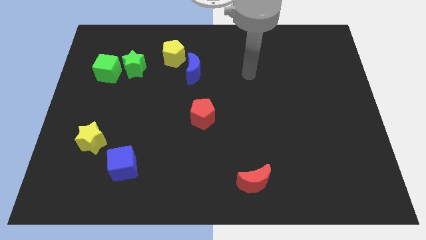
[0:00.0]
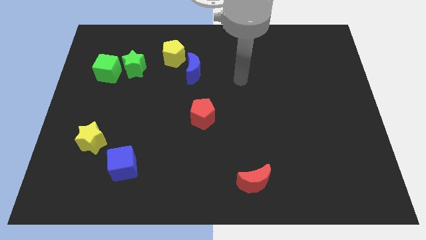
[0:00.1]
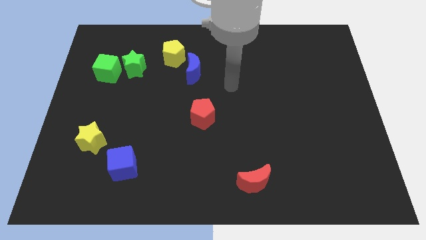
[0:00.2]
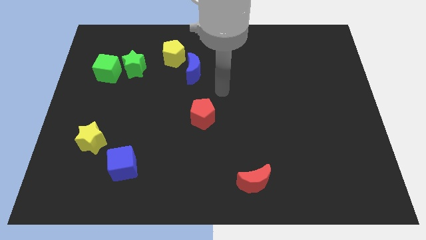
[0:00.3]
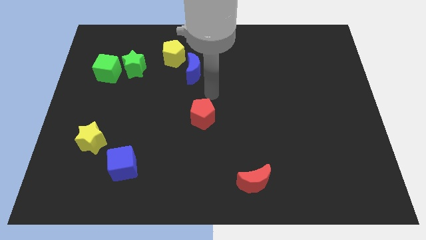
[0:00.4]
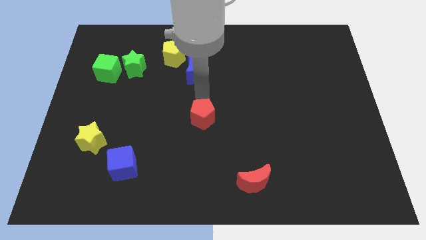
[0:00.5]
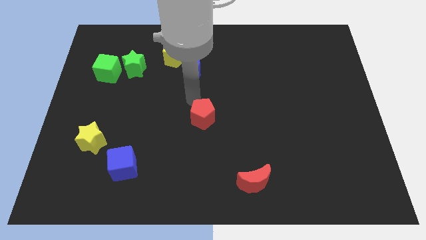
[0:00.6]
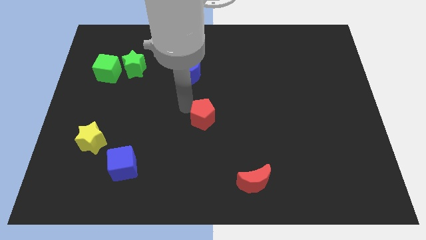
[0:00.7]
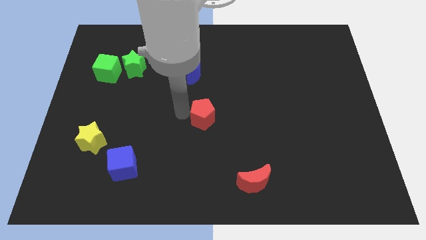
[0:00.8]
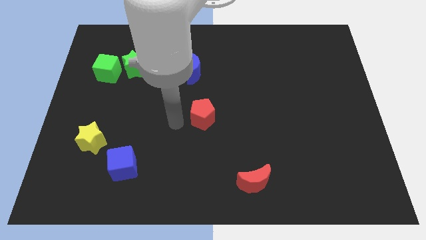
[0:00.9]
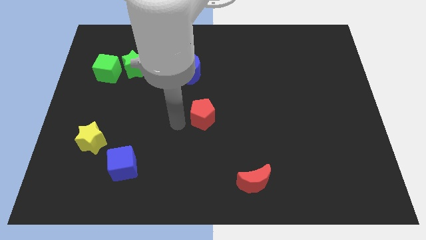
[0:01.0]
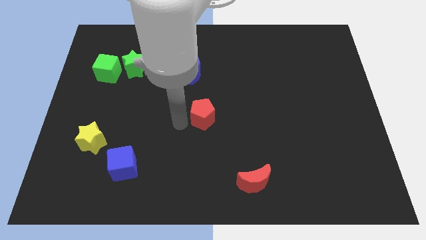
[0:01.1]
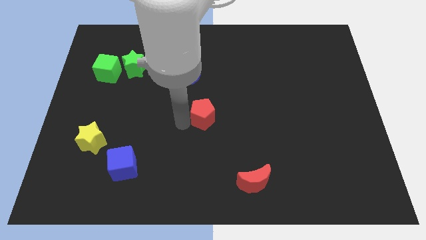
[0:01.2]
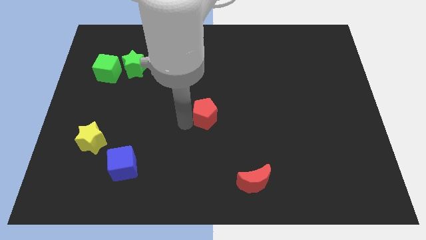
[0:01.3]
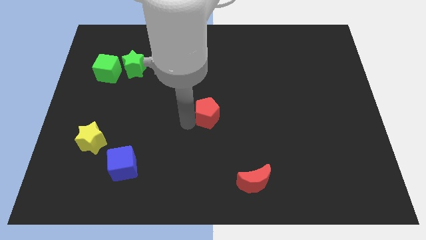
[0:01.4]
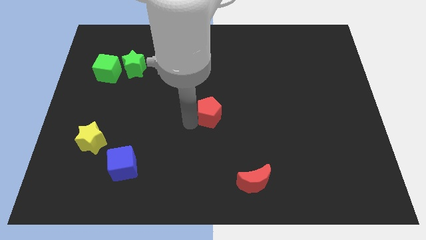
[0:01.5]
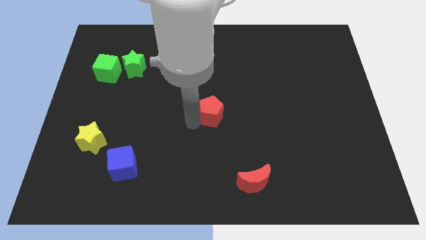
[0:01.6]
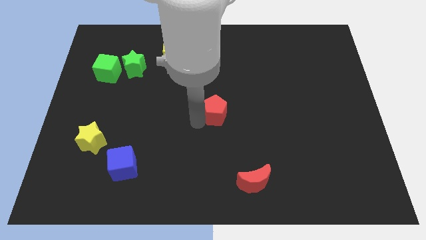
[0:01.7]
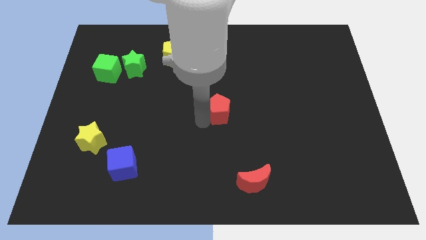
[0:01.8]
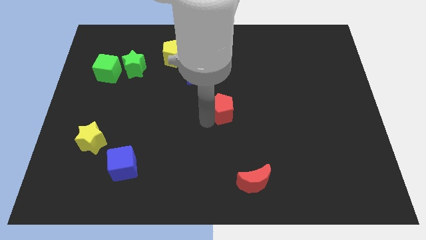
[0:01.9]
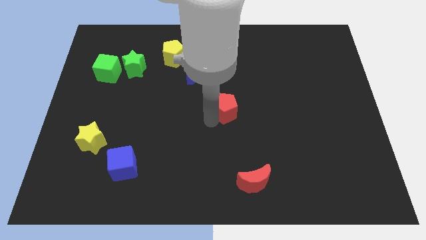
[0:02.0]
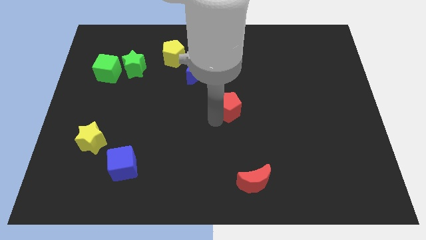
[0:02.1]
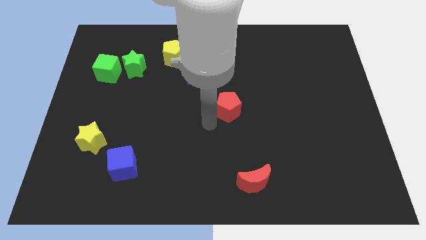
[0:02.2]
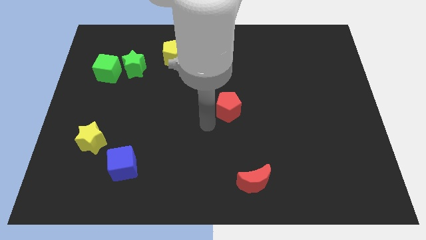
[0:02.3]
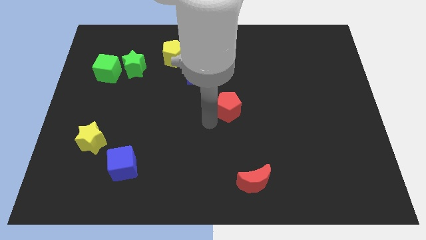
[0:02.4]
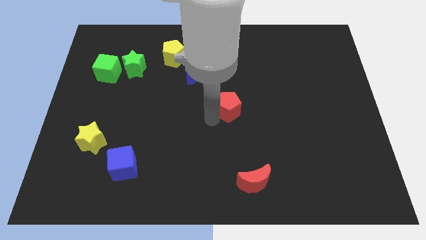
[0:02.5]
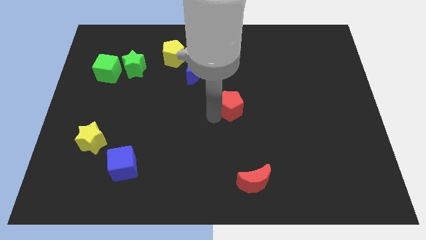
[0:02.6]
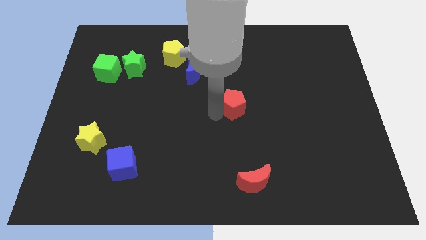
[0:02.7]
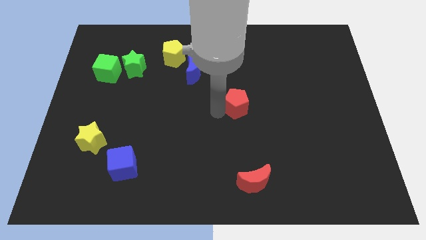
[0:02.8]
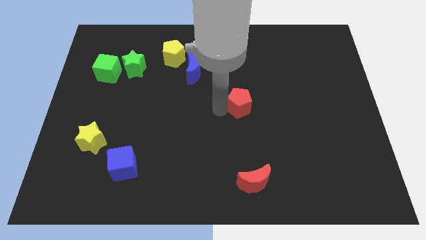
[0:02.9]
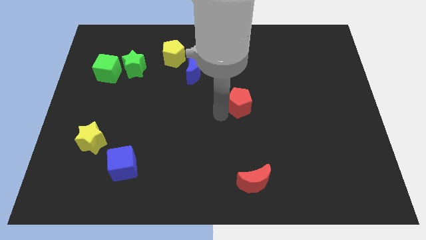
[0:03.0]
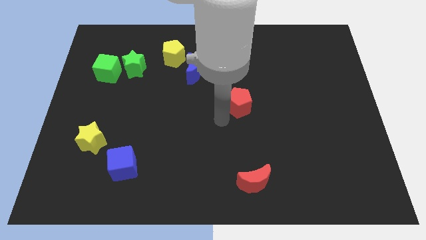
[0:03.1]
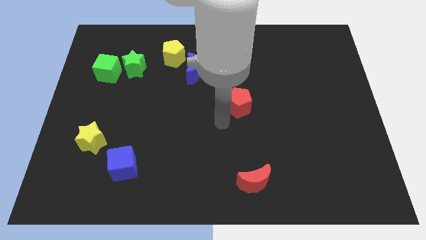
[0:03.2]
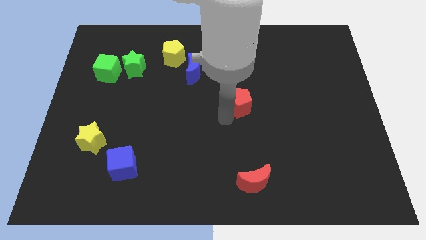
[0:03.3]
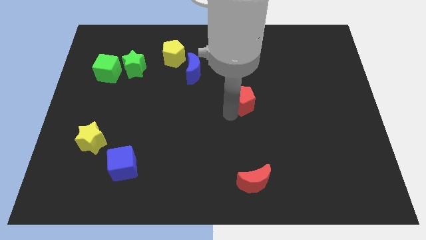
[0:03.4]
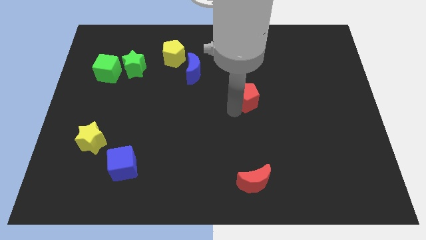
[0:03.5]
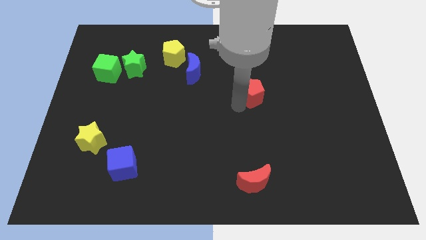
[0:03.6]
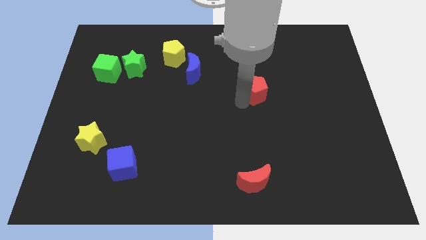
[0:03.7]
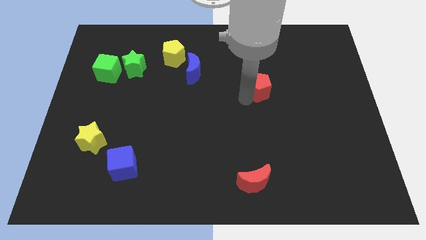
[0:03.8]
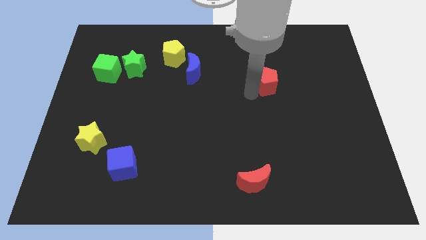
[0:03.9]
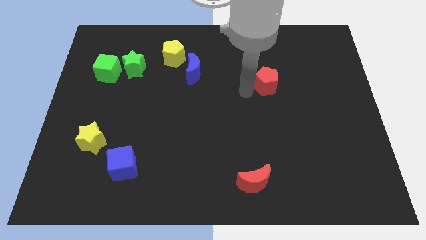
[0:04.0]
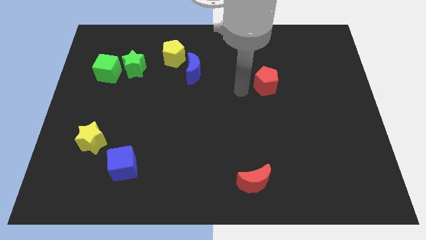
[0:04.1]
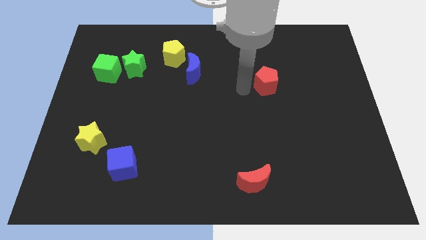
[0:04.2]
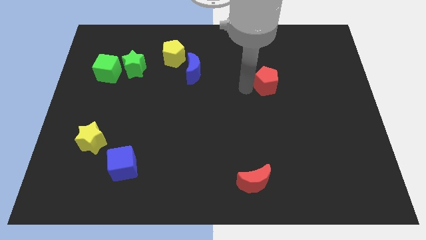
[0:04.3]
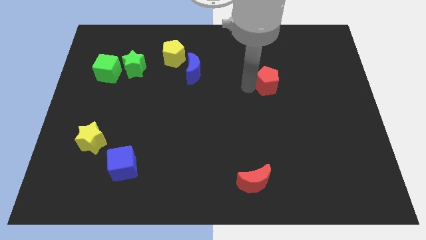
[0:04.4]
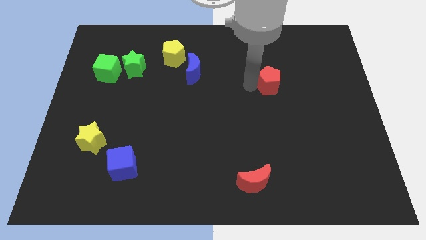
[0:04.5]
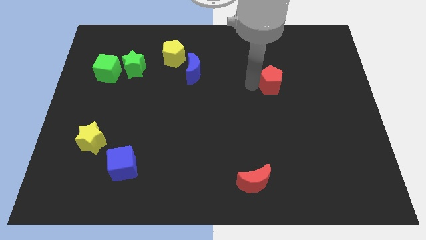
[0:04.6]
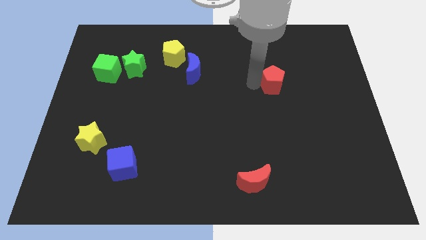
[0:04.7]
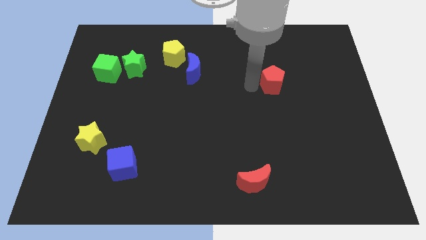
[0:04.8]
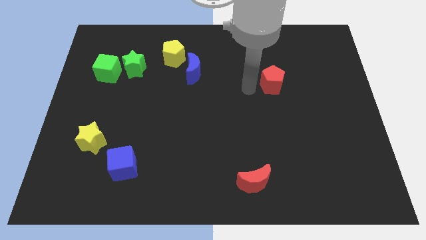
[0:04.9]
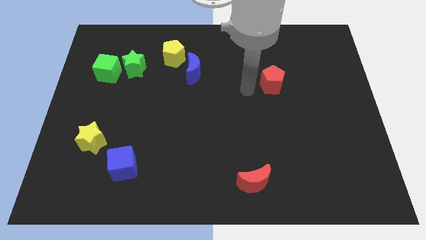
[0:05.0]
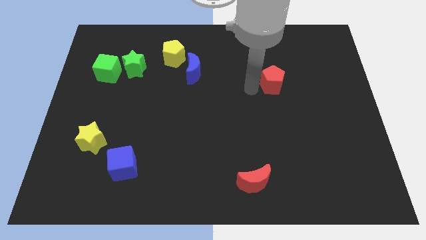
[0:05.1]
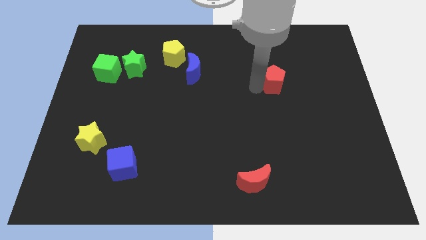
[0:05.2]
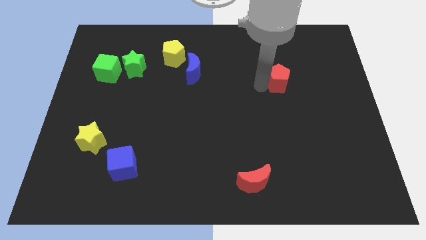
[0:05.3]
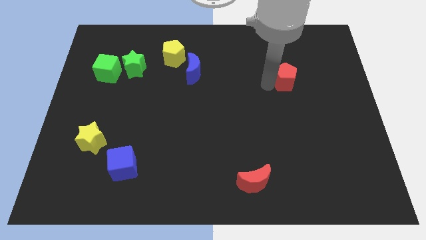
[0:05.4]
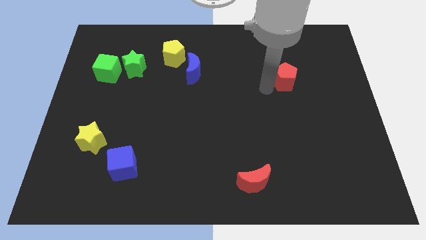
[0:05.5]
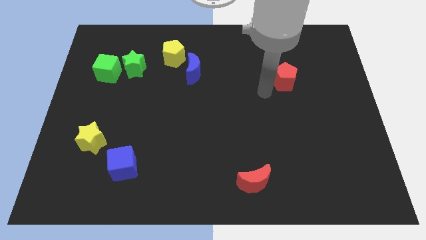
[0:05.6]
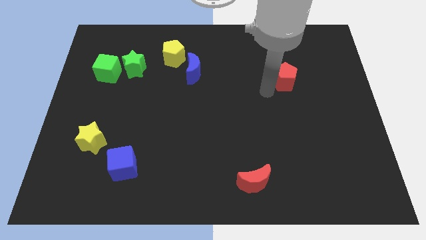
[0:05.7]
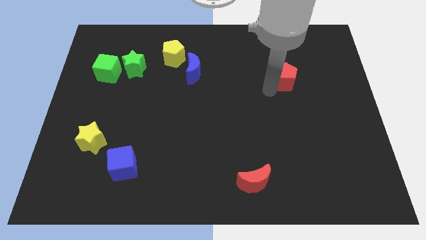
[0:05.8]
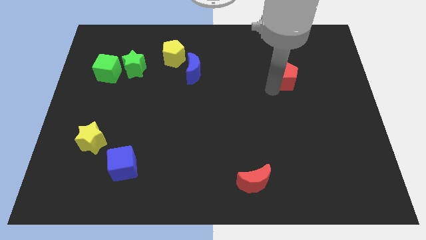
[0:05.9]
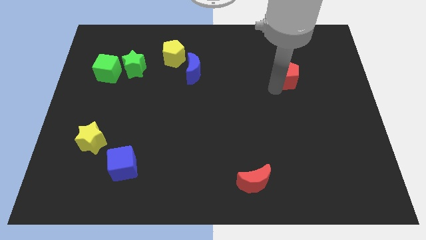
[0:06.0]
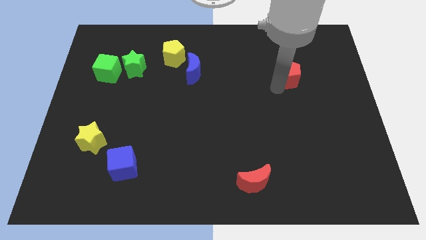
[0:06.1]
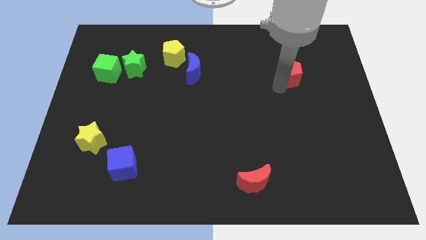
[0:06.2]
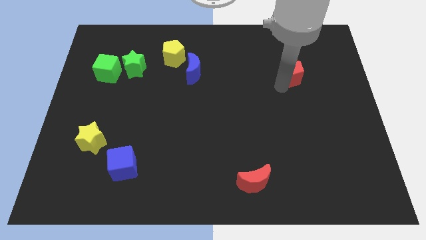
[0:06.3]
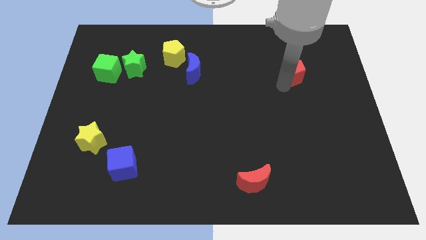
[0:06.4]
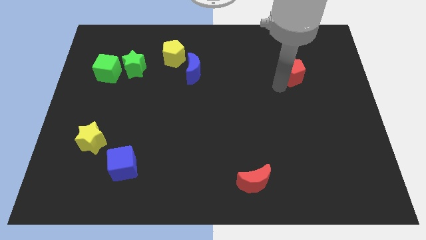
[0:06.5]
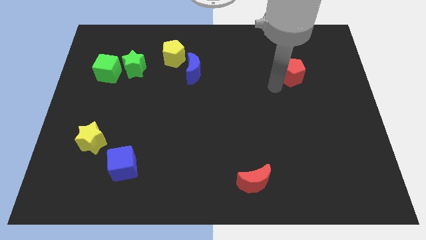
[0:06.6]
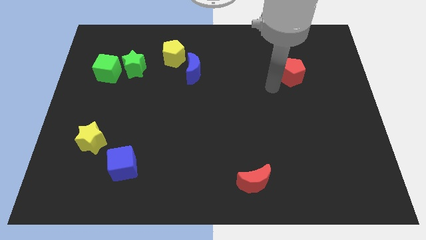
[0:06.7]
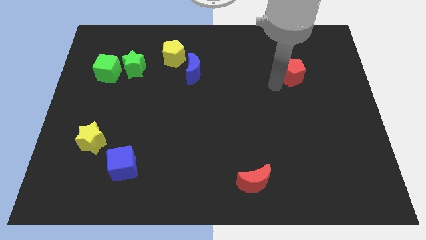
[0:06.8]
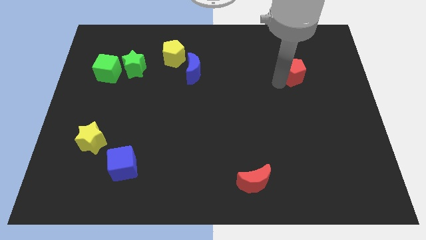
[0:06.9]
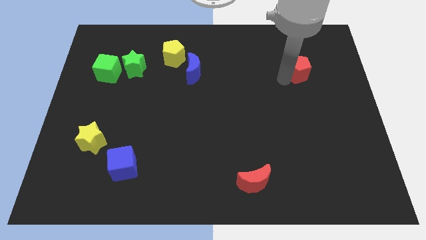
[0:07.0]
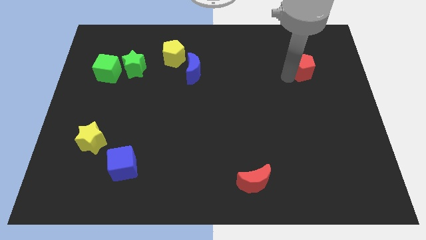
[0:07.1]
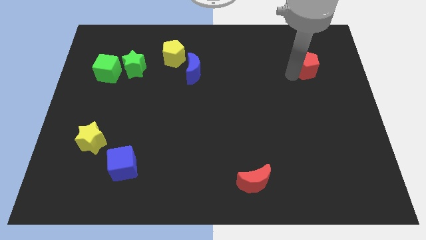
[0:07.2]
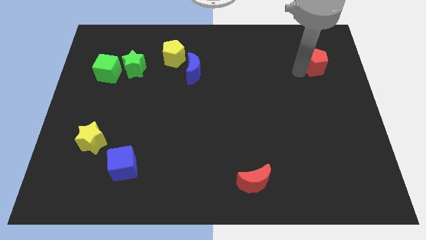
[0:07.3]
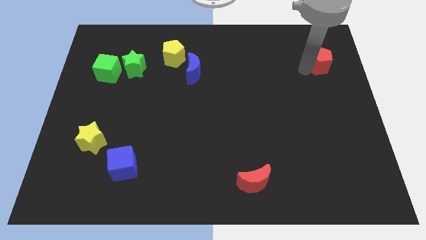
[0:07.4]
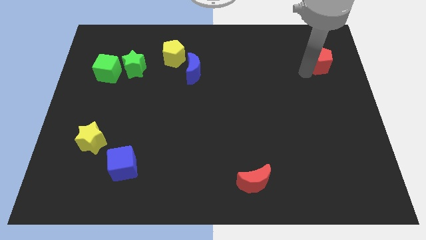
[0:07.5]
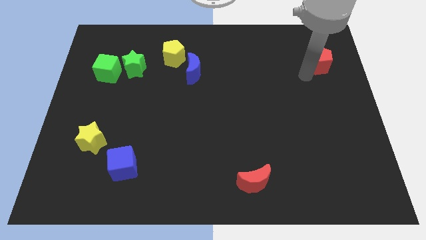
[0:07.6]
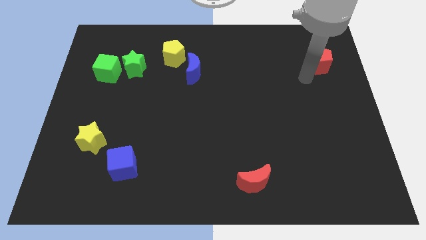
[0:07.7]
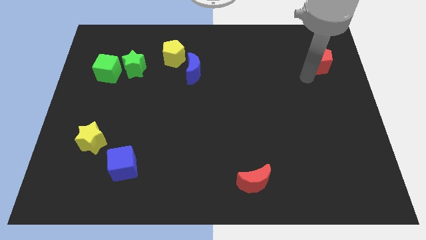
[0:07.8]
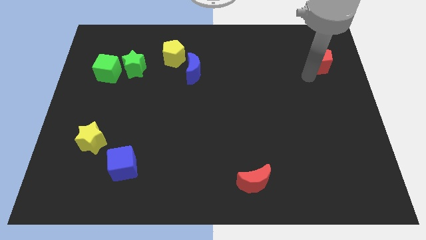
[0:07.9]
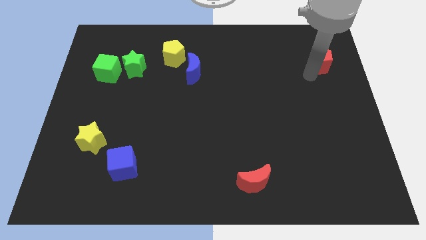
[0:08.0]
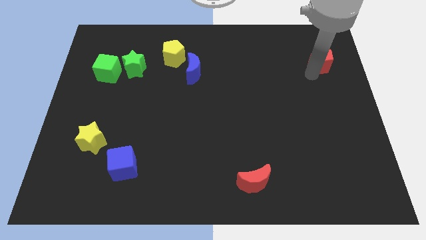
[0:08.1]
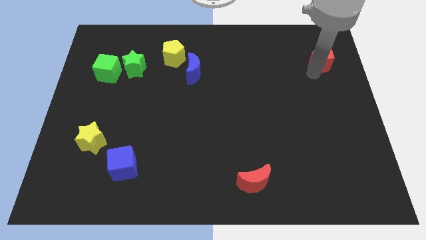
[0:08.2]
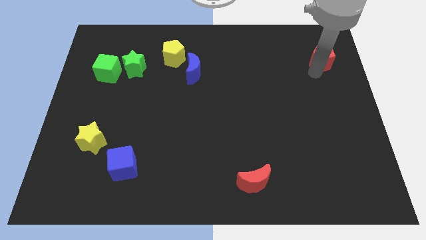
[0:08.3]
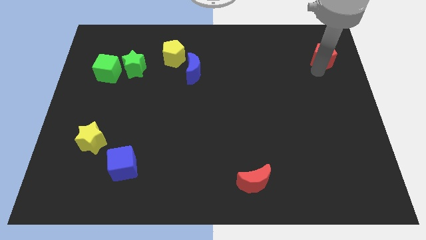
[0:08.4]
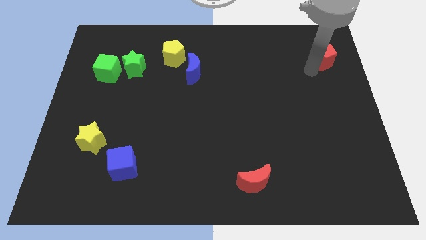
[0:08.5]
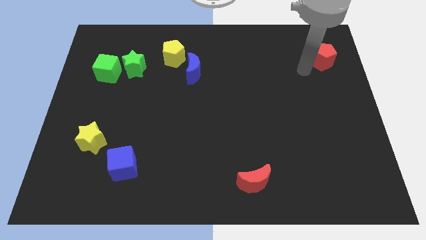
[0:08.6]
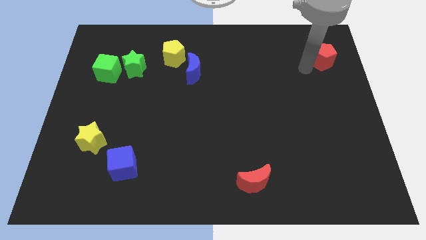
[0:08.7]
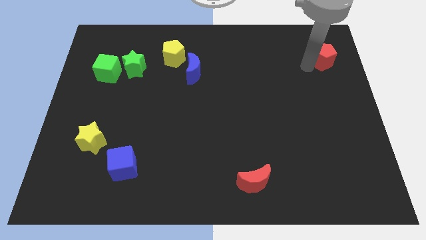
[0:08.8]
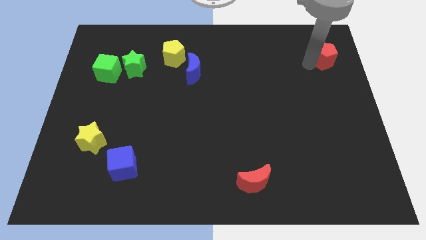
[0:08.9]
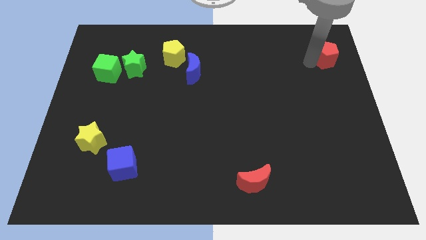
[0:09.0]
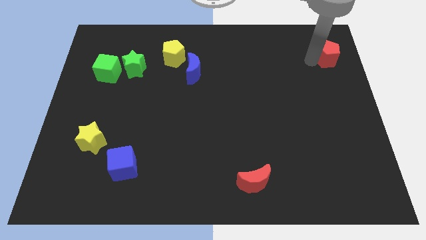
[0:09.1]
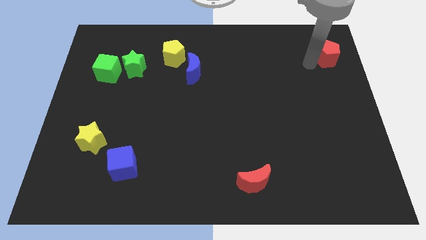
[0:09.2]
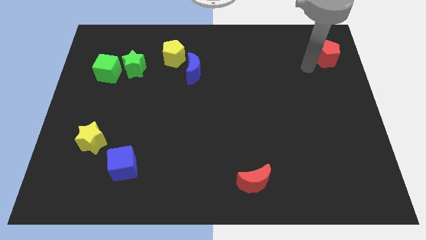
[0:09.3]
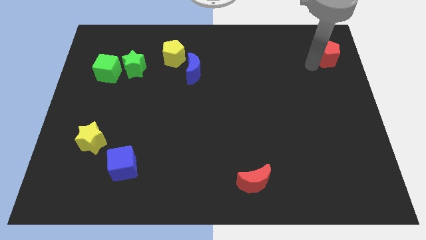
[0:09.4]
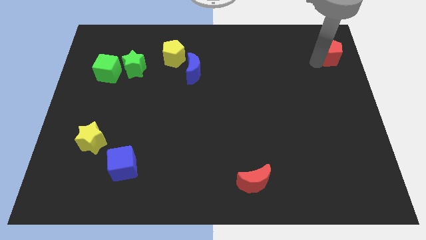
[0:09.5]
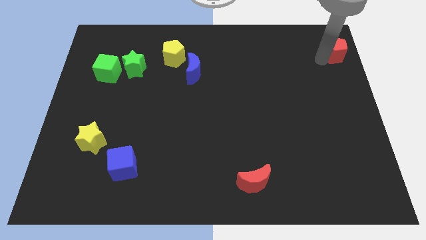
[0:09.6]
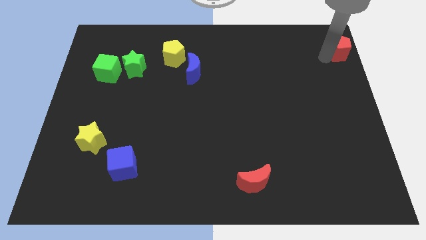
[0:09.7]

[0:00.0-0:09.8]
push the red pentagon to the top right of the board
